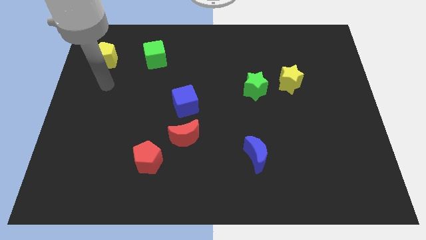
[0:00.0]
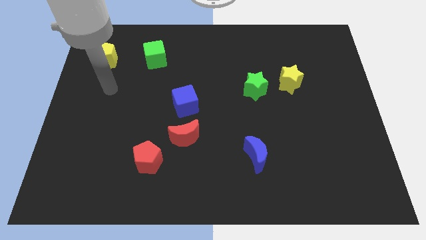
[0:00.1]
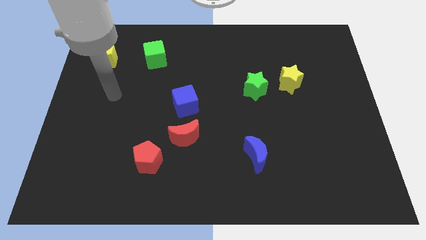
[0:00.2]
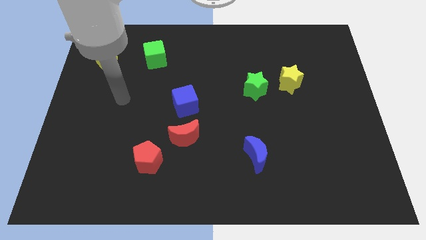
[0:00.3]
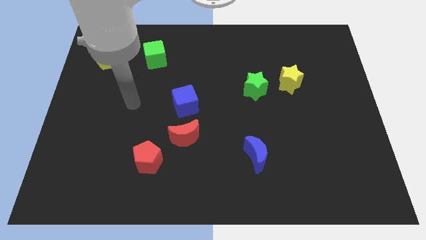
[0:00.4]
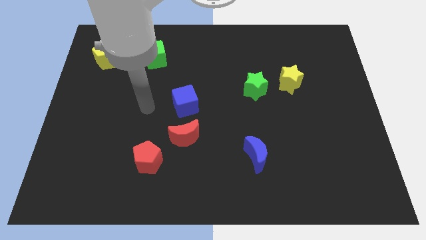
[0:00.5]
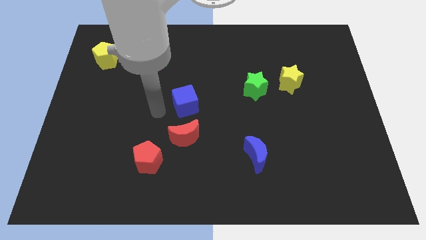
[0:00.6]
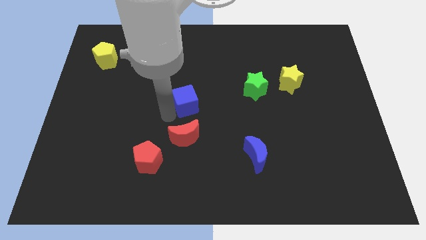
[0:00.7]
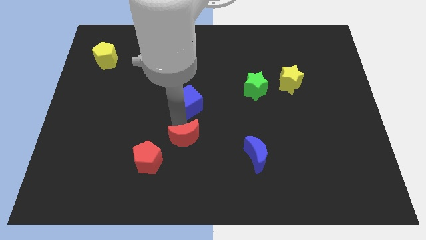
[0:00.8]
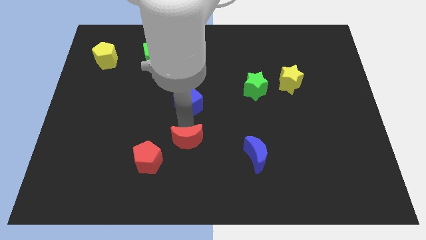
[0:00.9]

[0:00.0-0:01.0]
pull the blue cube apart from the red moon

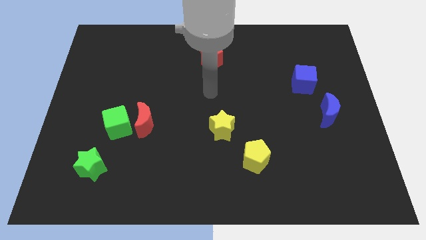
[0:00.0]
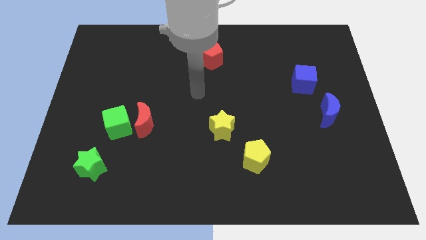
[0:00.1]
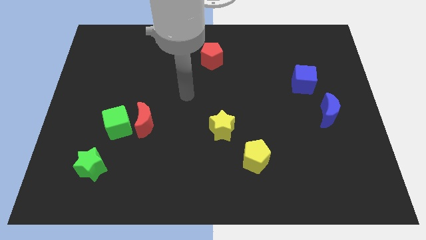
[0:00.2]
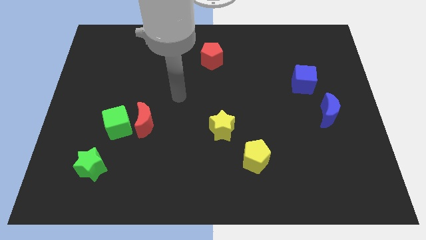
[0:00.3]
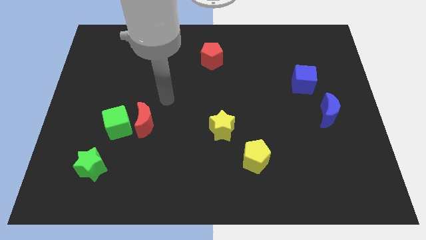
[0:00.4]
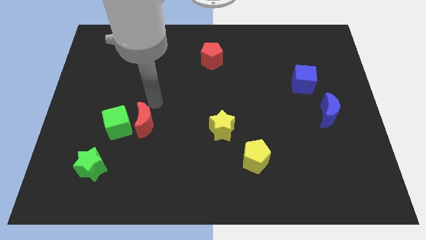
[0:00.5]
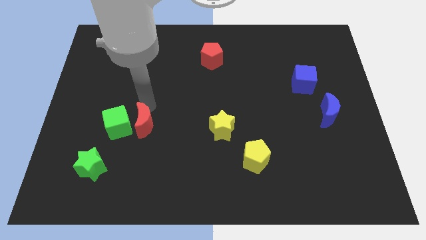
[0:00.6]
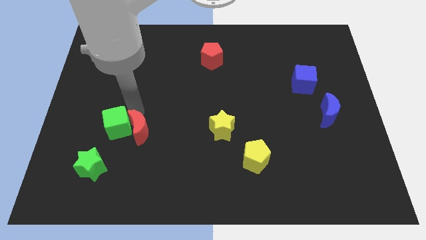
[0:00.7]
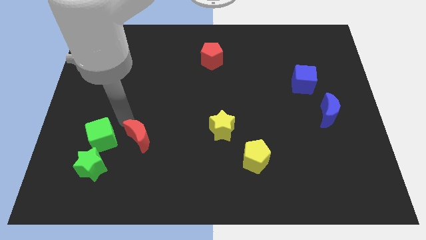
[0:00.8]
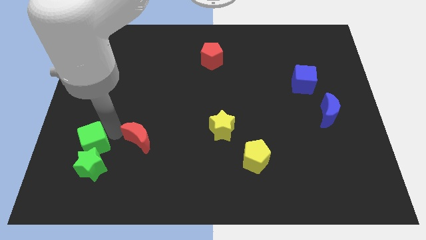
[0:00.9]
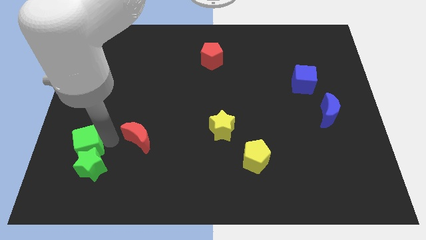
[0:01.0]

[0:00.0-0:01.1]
pull the red moon apart from the green cube

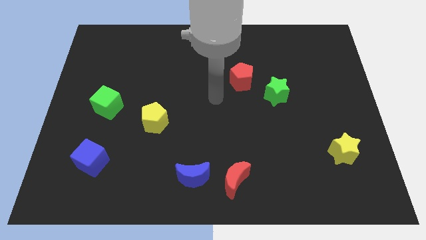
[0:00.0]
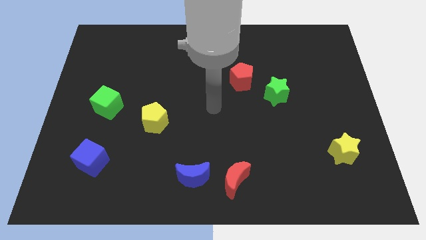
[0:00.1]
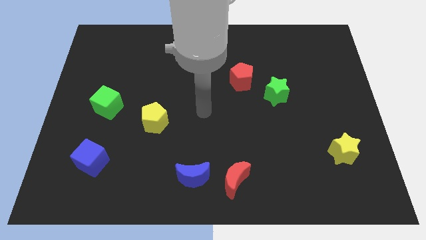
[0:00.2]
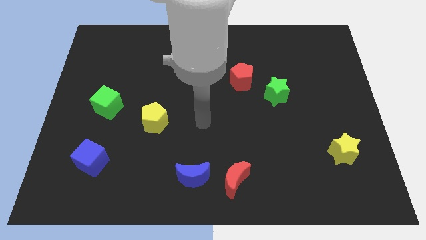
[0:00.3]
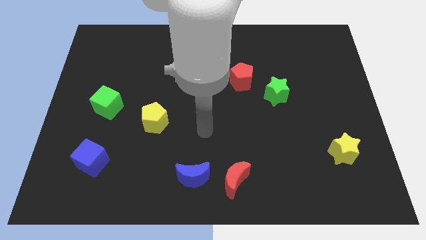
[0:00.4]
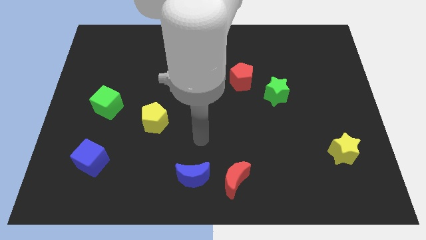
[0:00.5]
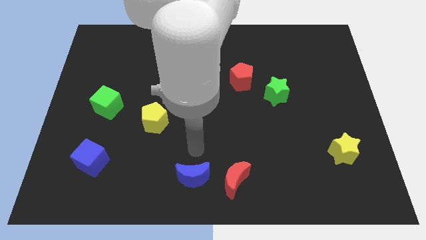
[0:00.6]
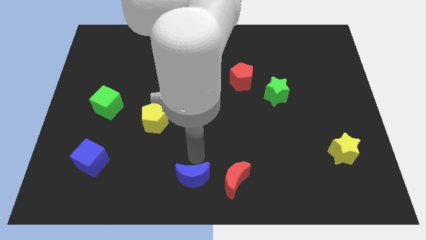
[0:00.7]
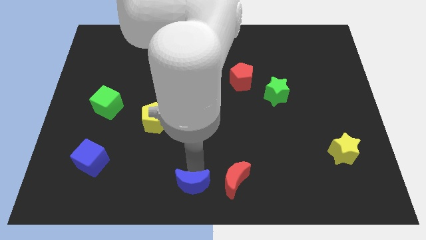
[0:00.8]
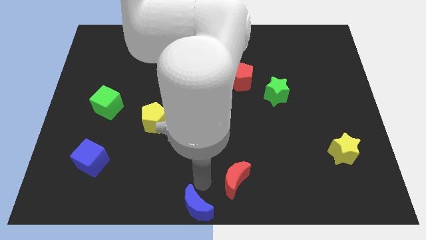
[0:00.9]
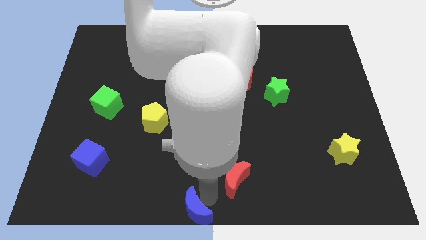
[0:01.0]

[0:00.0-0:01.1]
separate the red moon from the blue moon

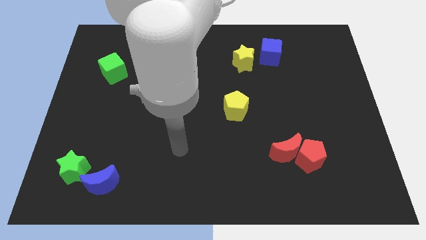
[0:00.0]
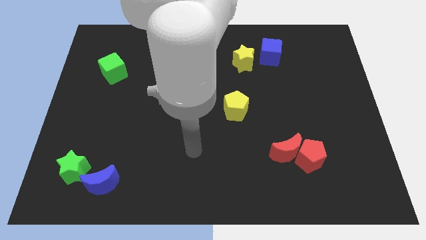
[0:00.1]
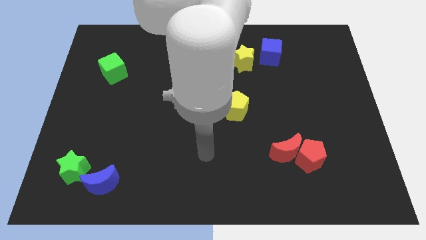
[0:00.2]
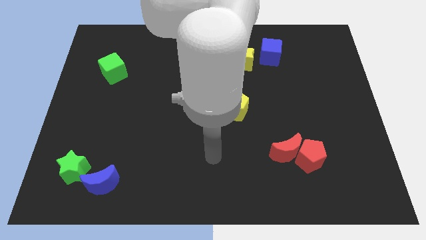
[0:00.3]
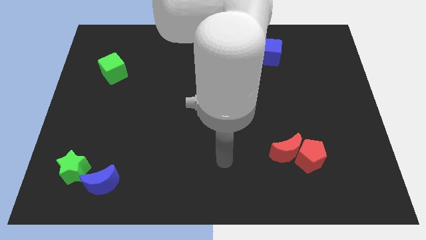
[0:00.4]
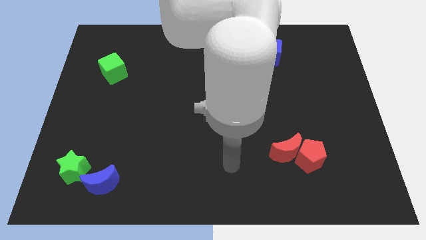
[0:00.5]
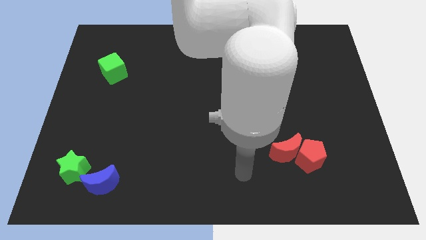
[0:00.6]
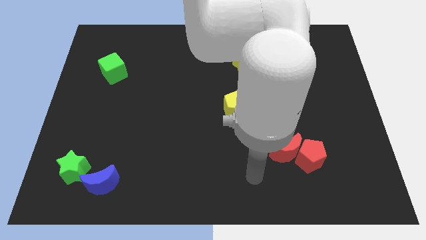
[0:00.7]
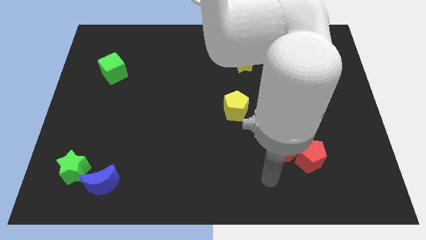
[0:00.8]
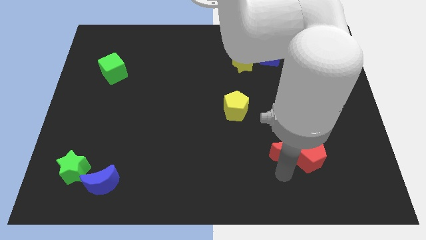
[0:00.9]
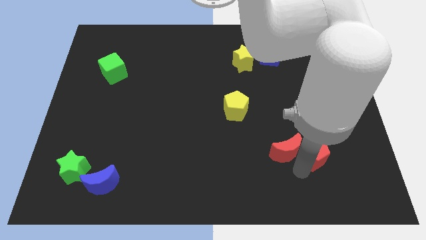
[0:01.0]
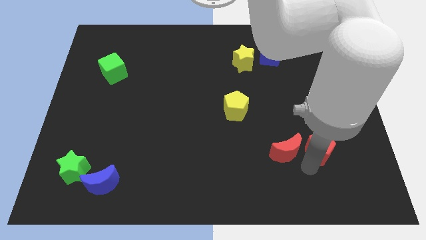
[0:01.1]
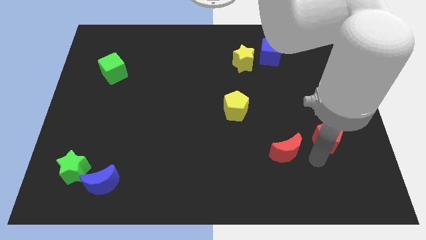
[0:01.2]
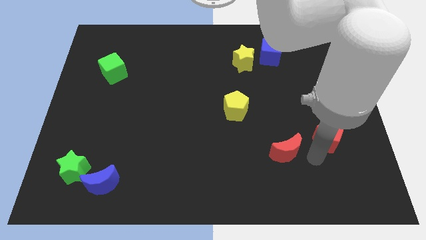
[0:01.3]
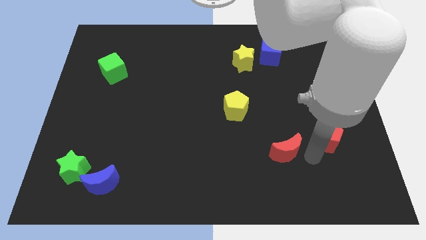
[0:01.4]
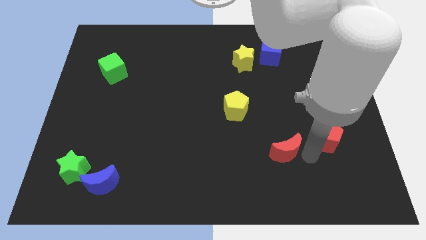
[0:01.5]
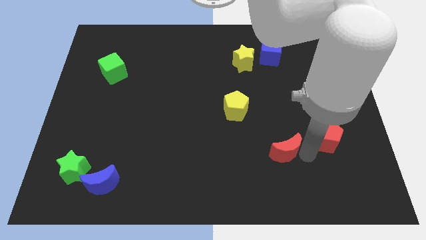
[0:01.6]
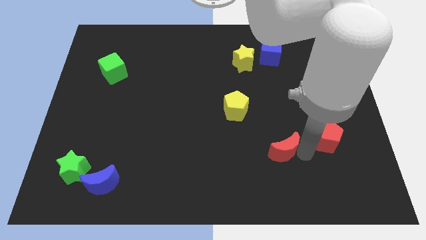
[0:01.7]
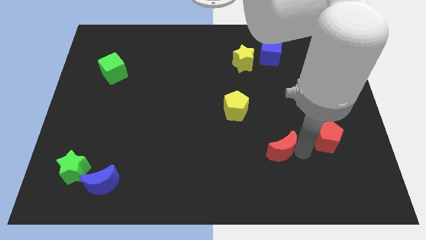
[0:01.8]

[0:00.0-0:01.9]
move the red moon away from the red pentagon

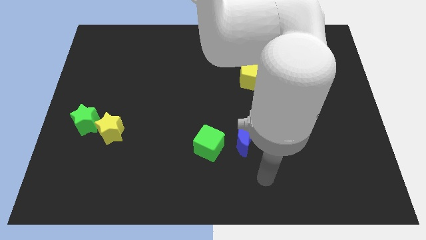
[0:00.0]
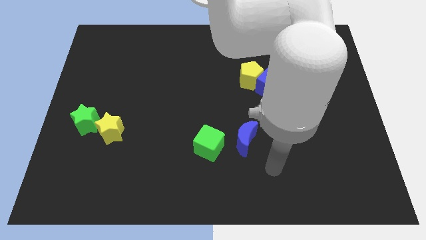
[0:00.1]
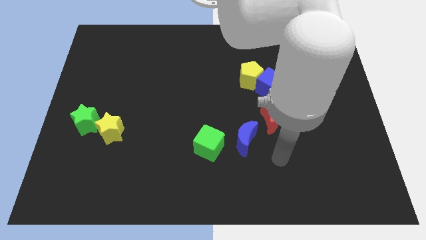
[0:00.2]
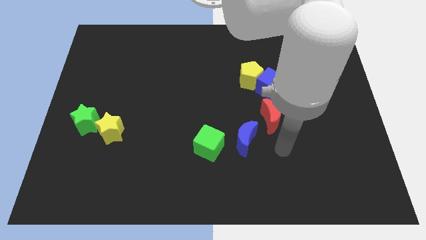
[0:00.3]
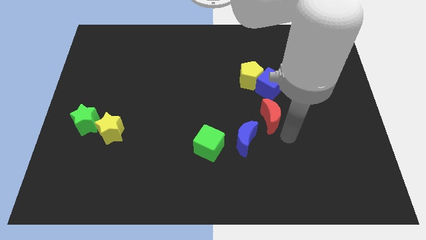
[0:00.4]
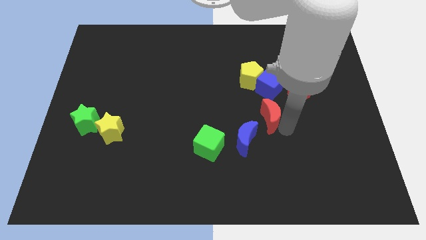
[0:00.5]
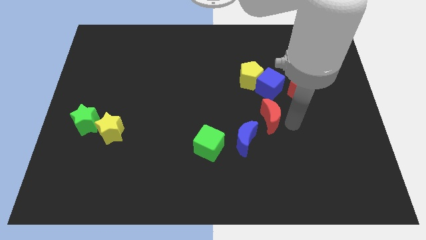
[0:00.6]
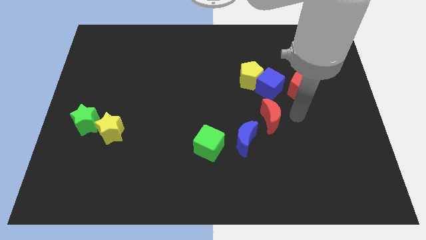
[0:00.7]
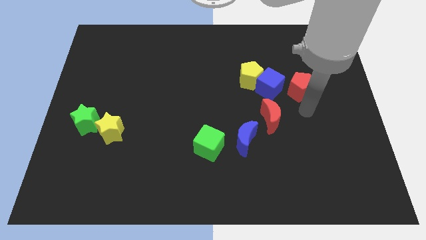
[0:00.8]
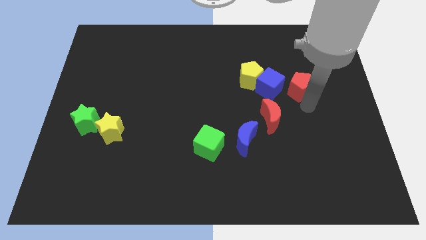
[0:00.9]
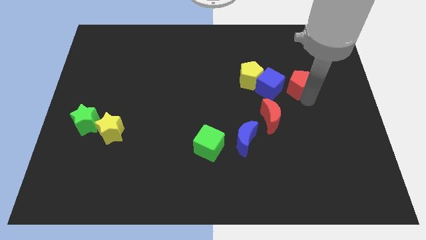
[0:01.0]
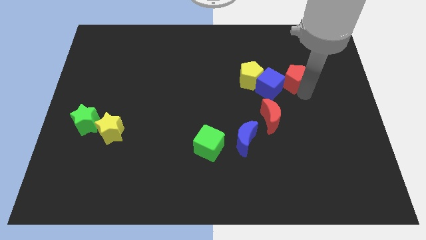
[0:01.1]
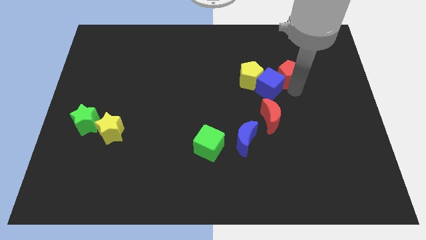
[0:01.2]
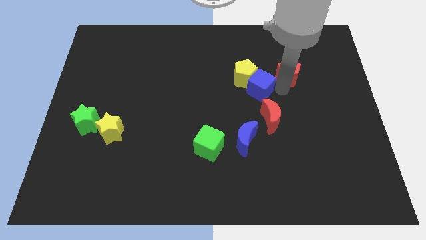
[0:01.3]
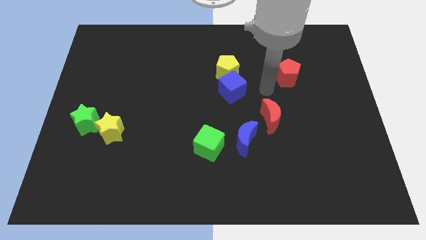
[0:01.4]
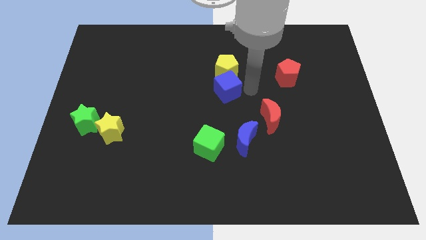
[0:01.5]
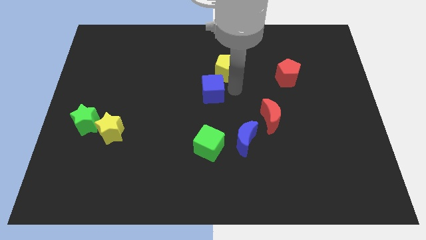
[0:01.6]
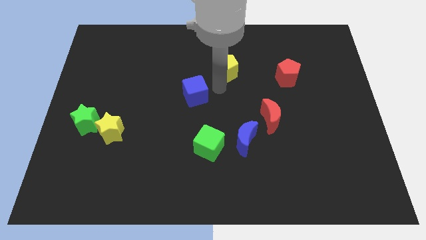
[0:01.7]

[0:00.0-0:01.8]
separate the yellow pentagon from the blue cube

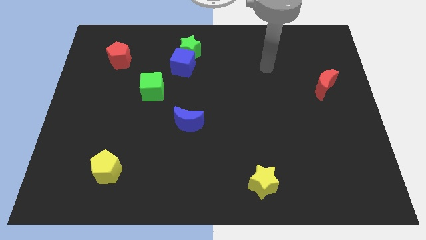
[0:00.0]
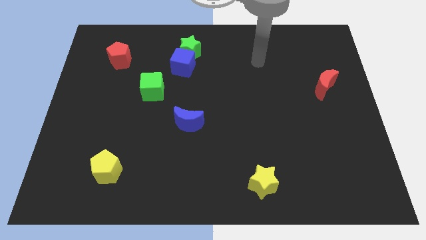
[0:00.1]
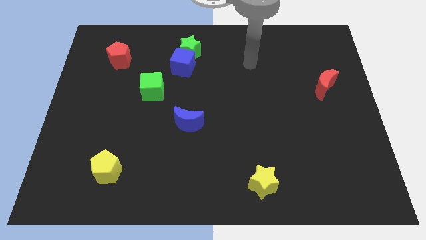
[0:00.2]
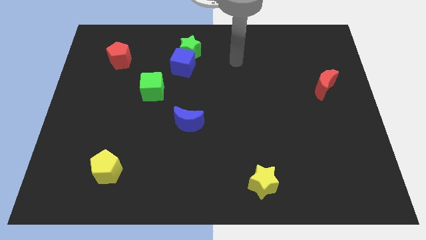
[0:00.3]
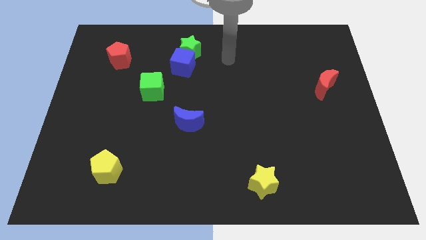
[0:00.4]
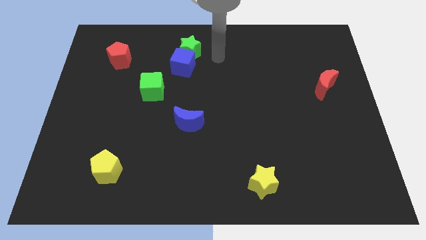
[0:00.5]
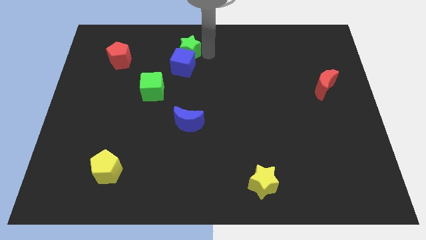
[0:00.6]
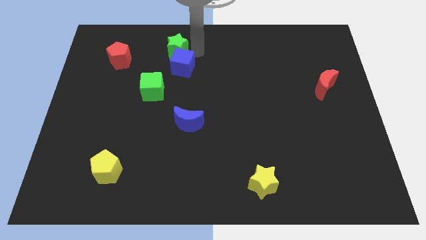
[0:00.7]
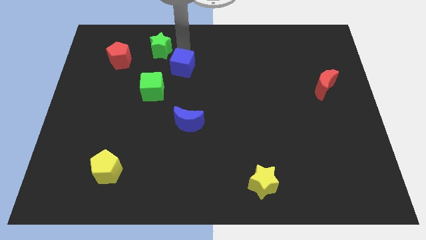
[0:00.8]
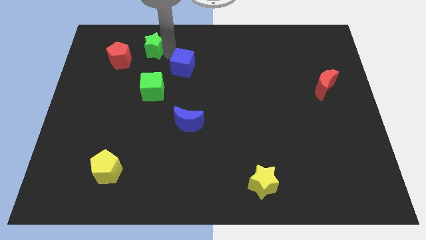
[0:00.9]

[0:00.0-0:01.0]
pull the blue cube apart from the green star

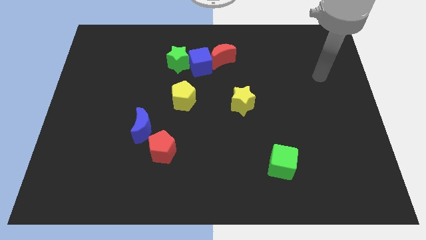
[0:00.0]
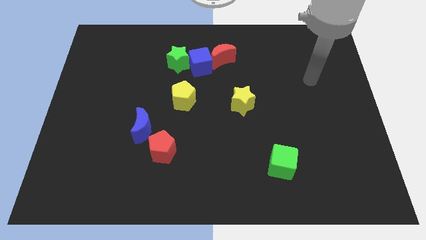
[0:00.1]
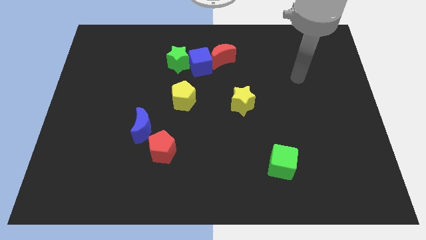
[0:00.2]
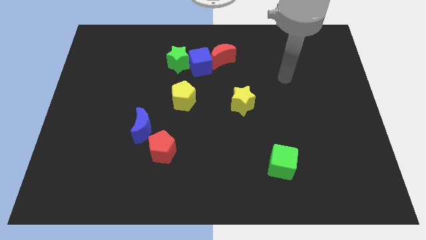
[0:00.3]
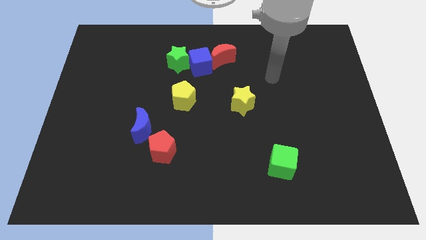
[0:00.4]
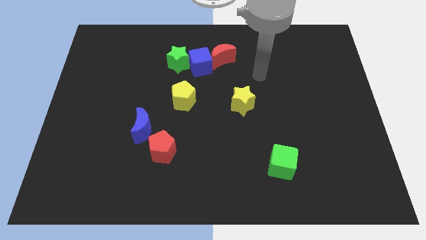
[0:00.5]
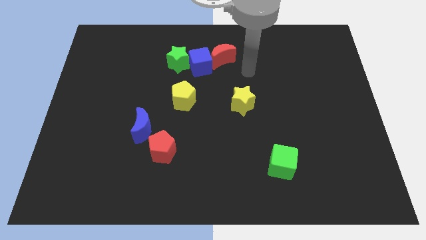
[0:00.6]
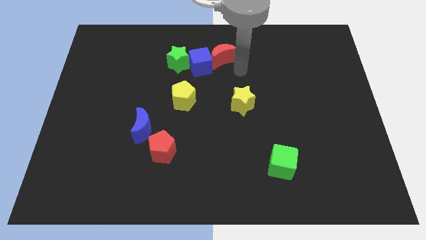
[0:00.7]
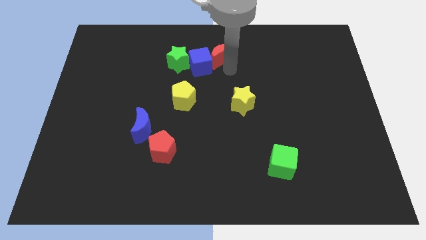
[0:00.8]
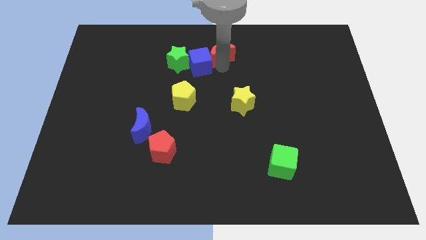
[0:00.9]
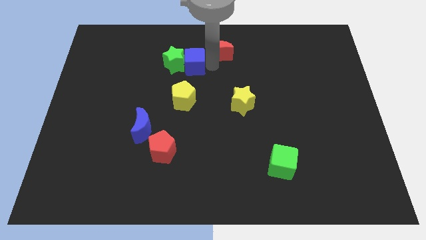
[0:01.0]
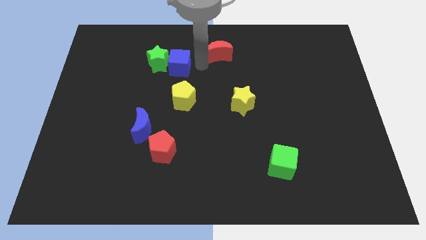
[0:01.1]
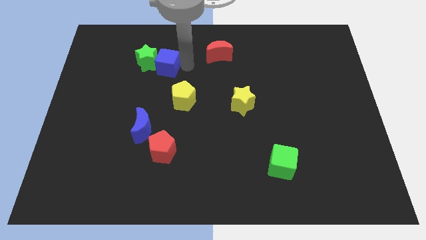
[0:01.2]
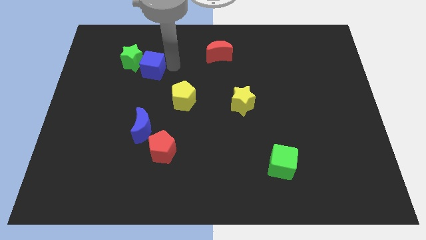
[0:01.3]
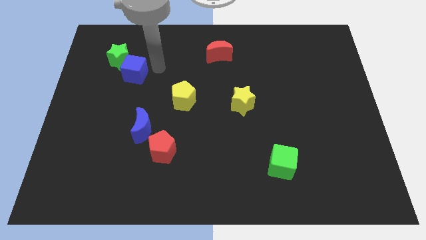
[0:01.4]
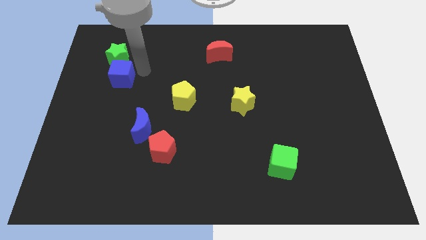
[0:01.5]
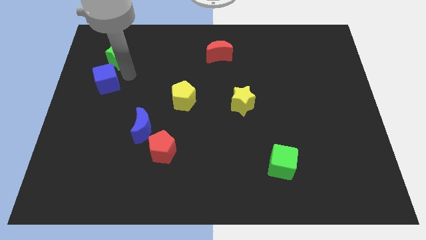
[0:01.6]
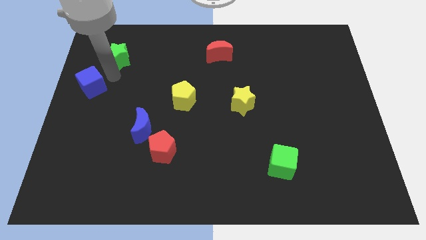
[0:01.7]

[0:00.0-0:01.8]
move the green star away from the blue cube
